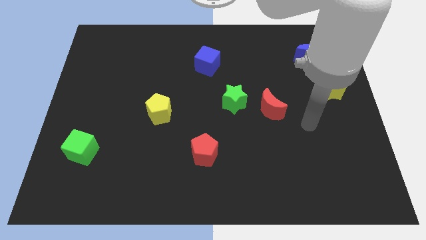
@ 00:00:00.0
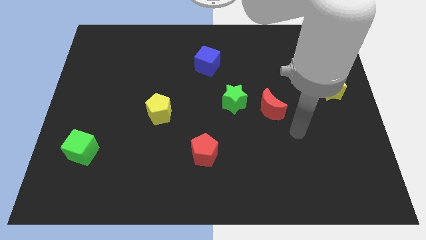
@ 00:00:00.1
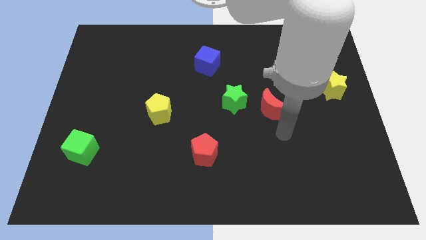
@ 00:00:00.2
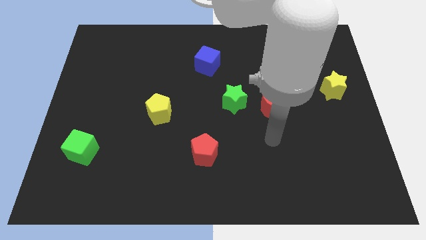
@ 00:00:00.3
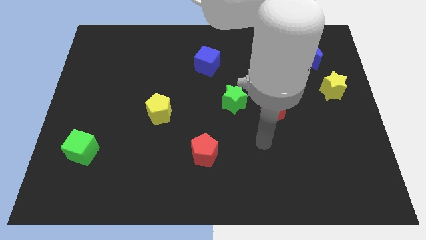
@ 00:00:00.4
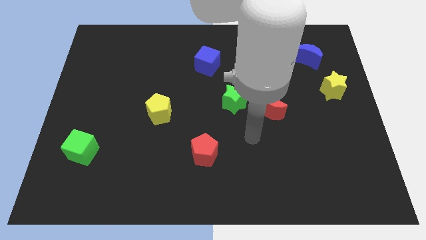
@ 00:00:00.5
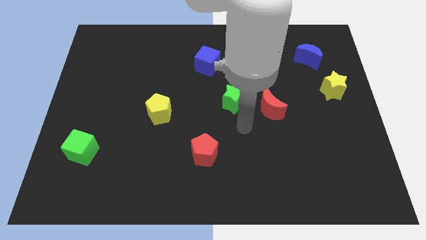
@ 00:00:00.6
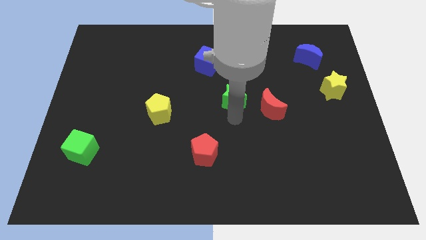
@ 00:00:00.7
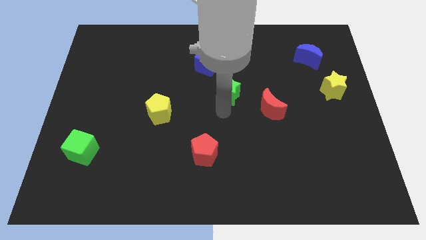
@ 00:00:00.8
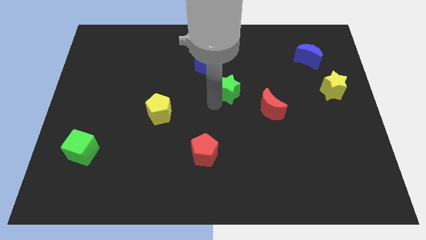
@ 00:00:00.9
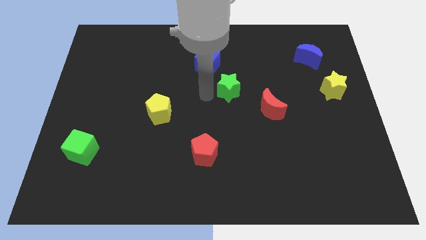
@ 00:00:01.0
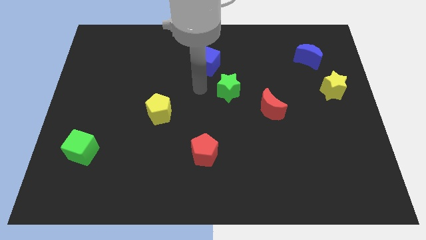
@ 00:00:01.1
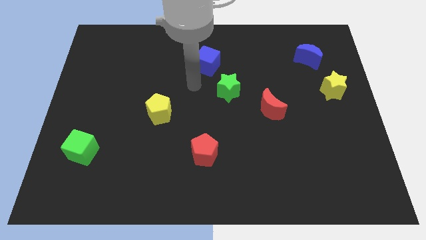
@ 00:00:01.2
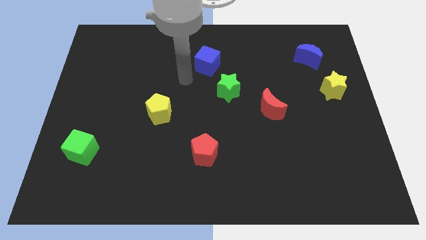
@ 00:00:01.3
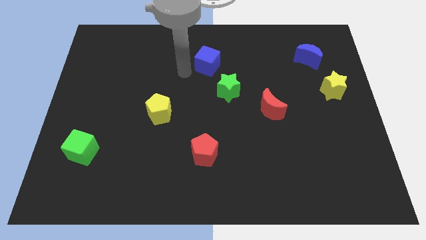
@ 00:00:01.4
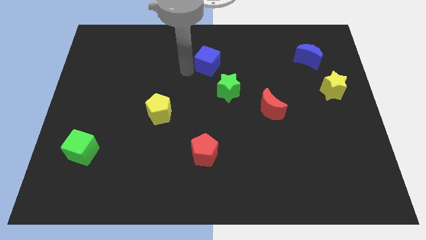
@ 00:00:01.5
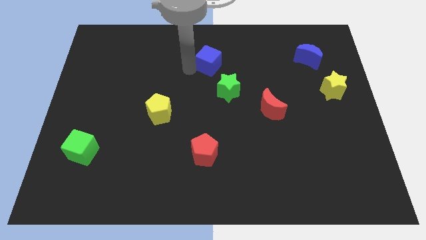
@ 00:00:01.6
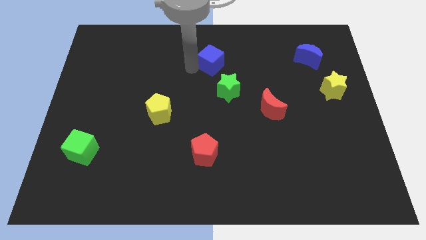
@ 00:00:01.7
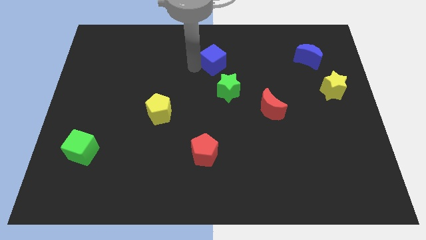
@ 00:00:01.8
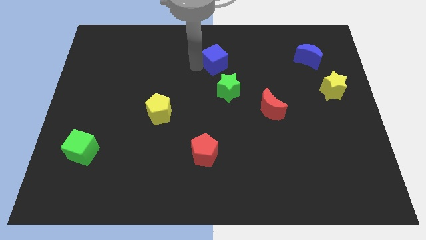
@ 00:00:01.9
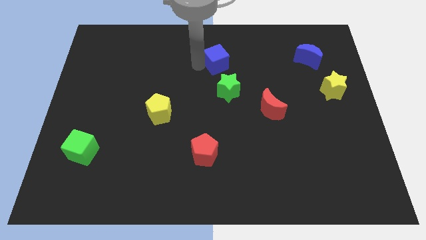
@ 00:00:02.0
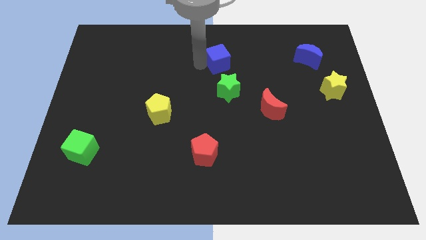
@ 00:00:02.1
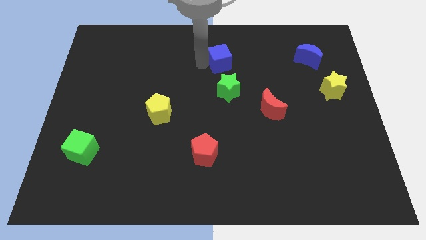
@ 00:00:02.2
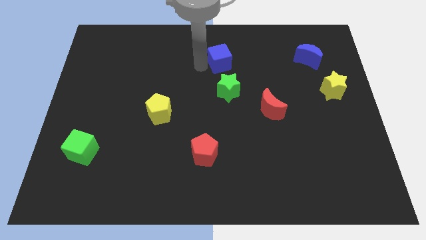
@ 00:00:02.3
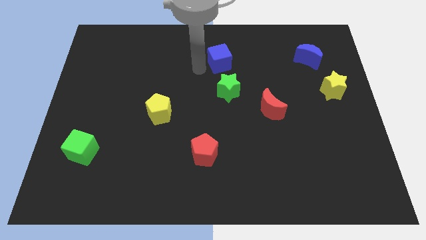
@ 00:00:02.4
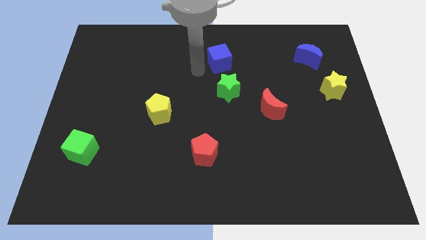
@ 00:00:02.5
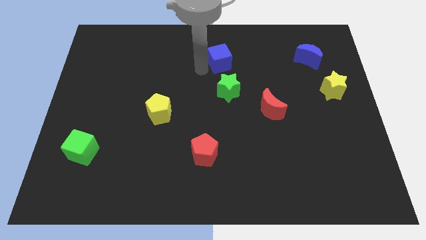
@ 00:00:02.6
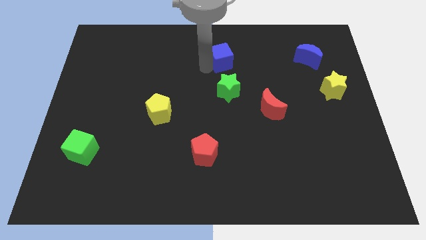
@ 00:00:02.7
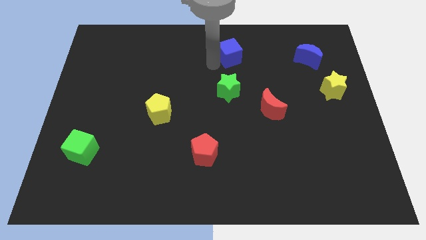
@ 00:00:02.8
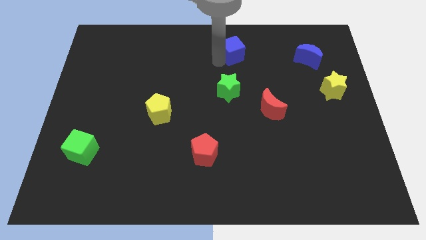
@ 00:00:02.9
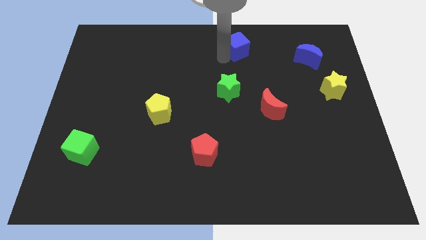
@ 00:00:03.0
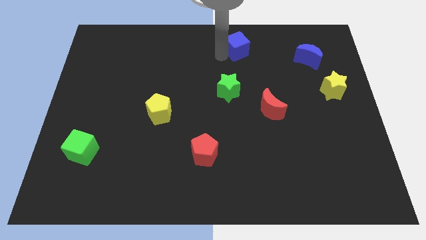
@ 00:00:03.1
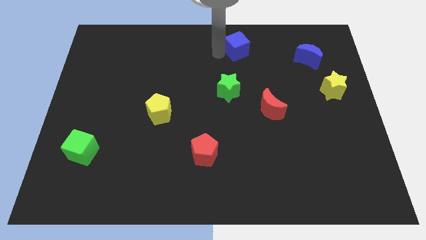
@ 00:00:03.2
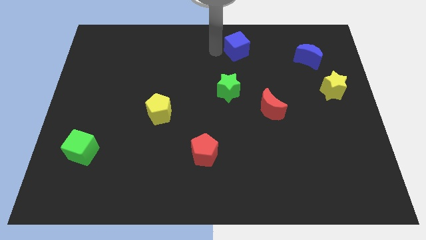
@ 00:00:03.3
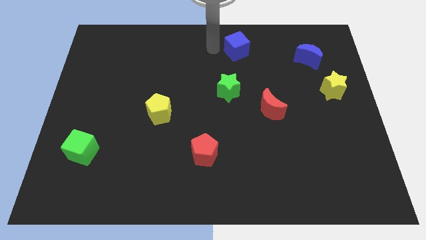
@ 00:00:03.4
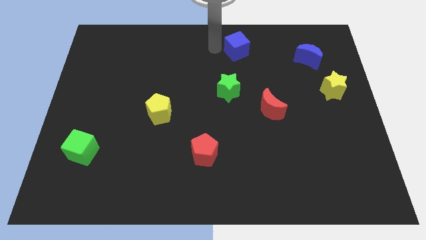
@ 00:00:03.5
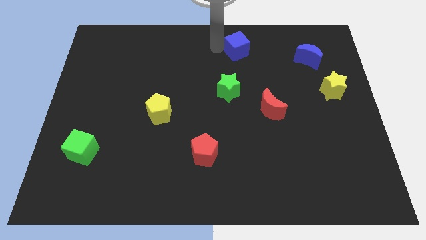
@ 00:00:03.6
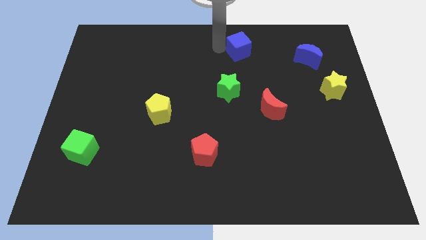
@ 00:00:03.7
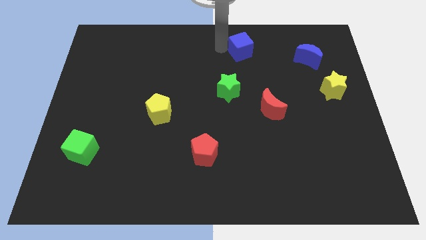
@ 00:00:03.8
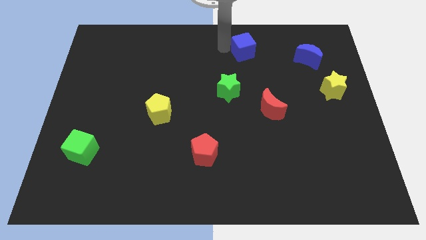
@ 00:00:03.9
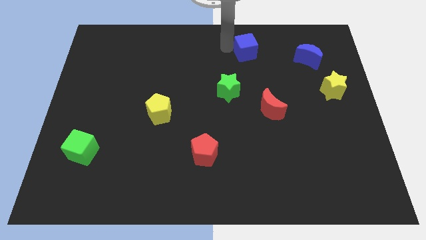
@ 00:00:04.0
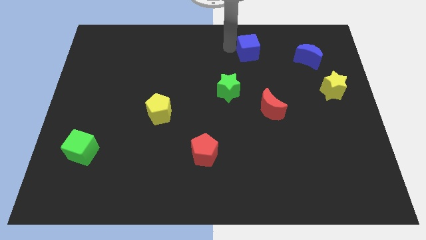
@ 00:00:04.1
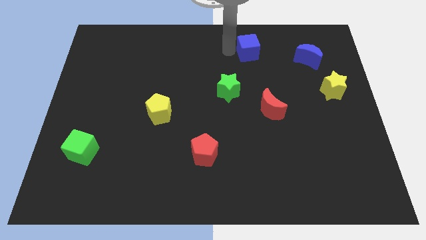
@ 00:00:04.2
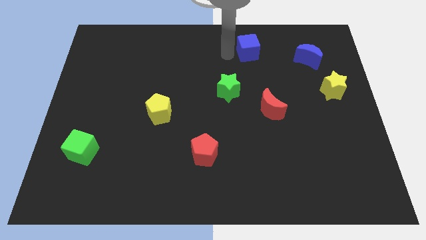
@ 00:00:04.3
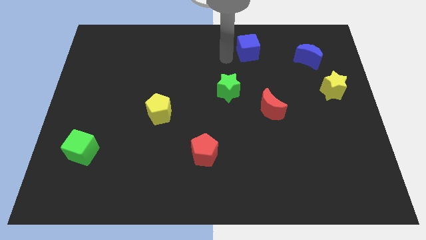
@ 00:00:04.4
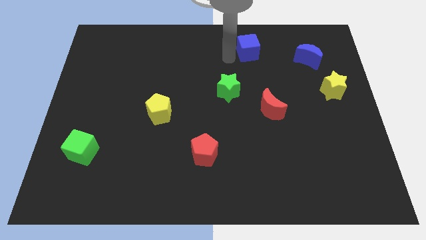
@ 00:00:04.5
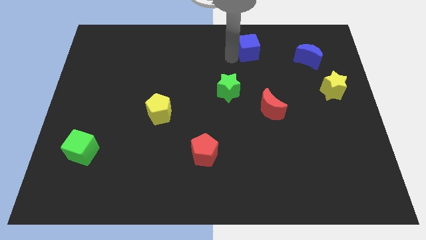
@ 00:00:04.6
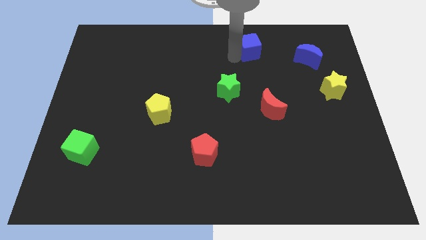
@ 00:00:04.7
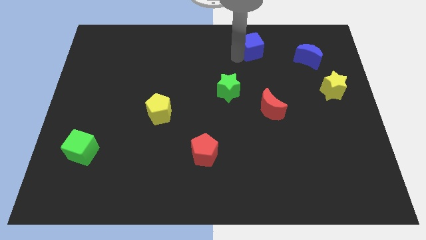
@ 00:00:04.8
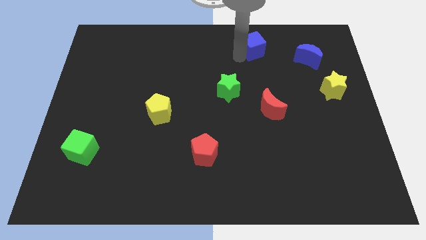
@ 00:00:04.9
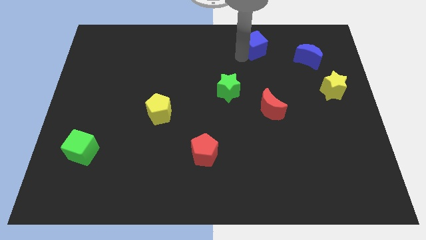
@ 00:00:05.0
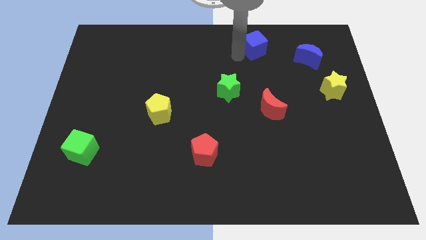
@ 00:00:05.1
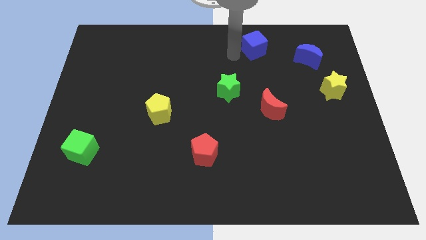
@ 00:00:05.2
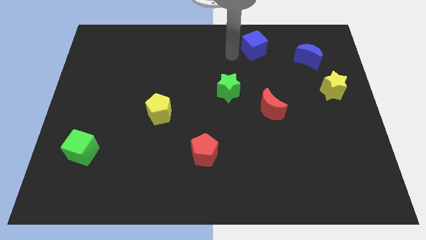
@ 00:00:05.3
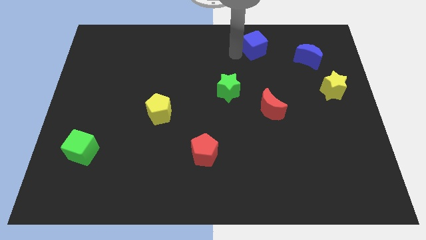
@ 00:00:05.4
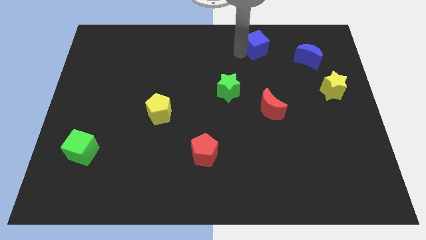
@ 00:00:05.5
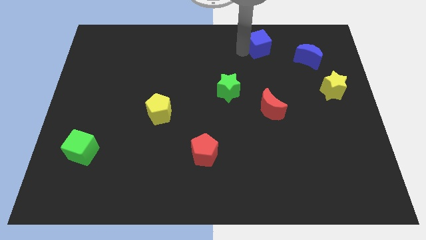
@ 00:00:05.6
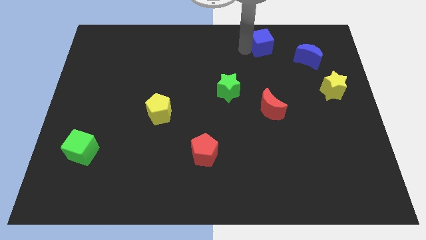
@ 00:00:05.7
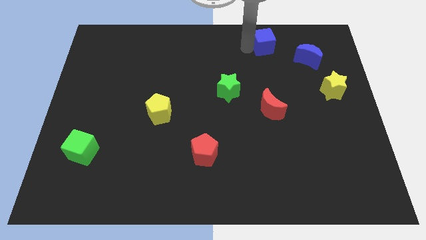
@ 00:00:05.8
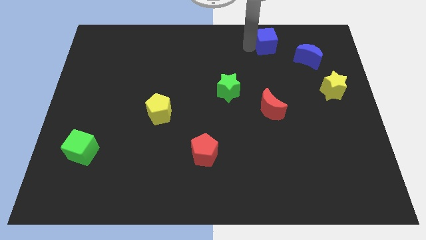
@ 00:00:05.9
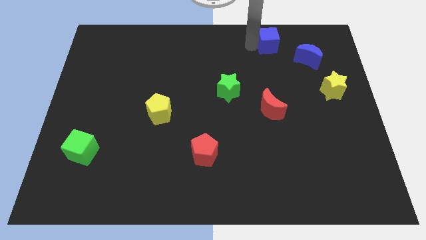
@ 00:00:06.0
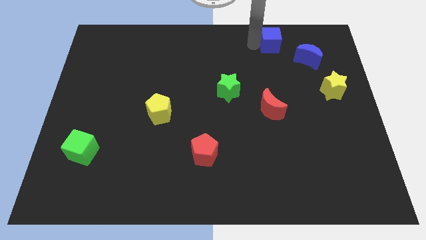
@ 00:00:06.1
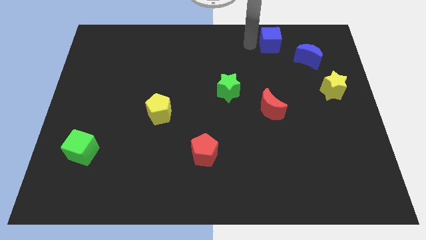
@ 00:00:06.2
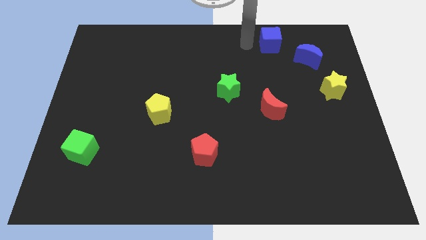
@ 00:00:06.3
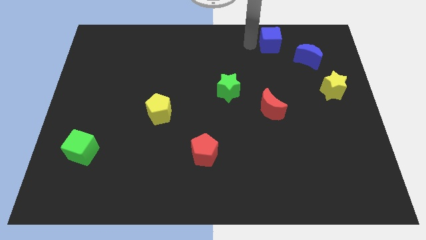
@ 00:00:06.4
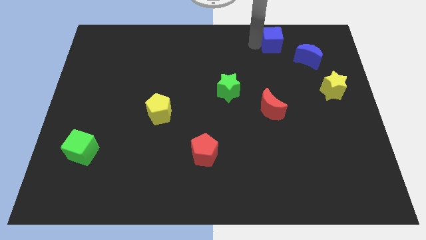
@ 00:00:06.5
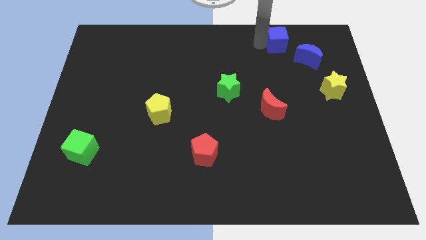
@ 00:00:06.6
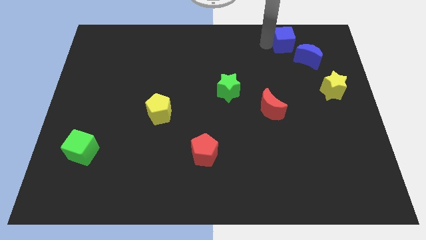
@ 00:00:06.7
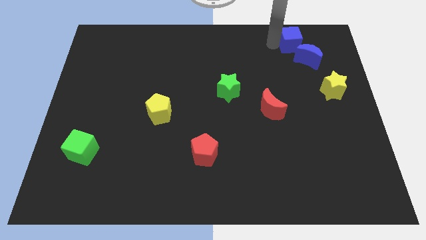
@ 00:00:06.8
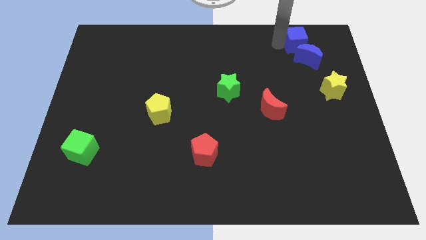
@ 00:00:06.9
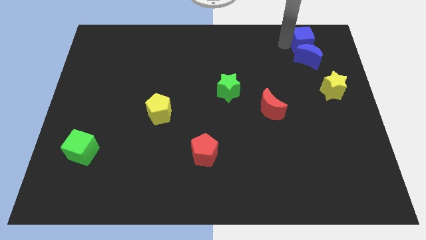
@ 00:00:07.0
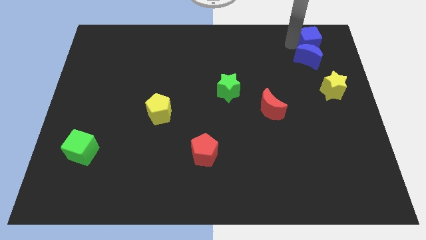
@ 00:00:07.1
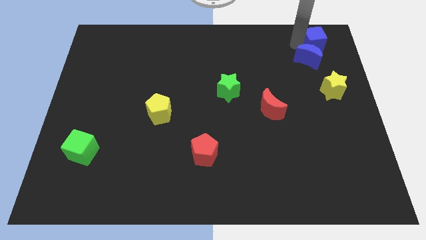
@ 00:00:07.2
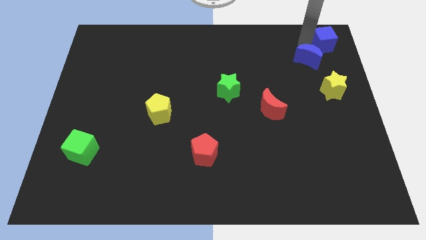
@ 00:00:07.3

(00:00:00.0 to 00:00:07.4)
slide the blue cube to the top right of the board

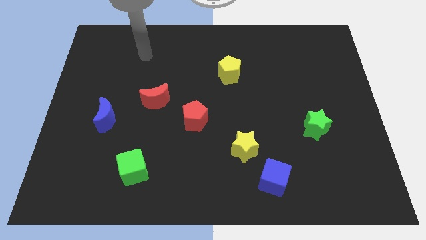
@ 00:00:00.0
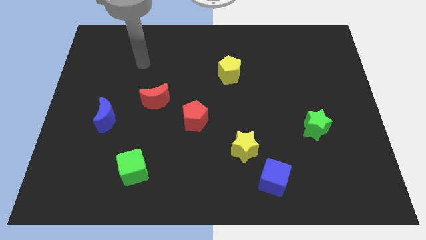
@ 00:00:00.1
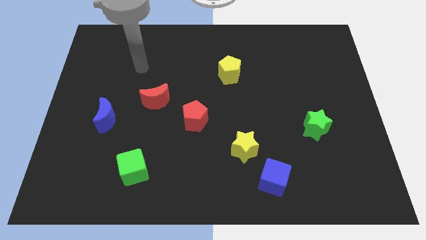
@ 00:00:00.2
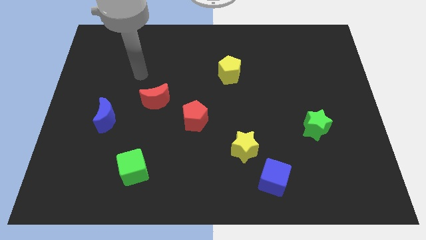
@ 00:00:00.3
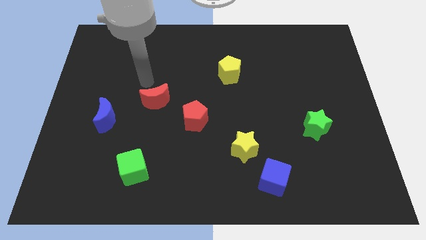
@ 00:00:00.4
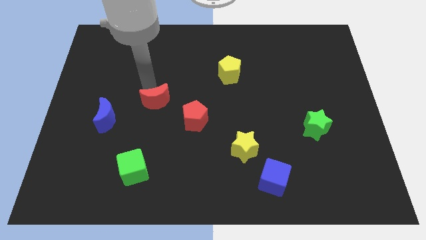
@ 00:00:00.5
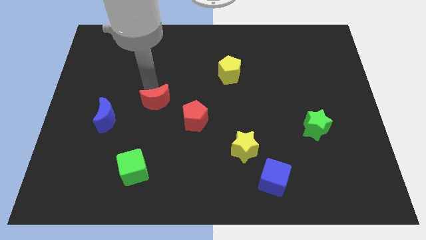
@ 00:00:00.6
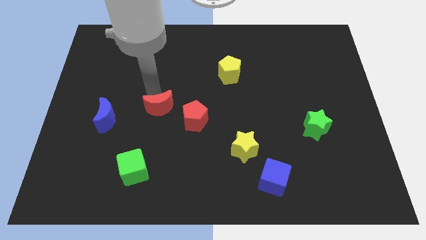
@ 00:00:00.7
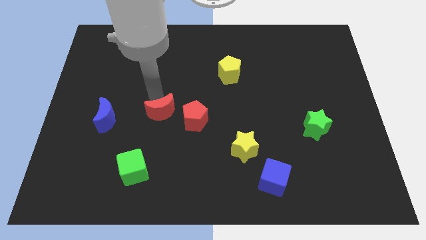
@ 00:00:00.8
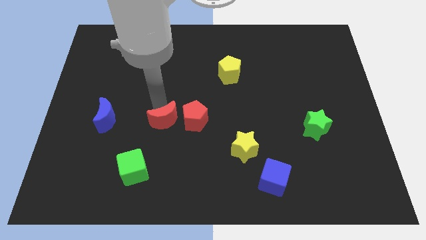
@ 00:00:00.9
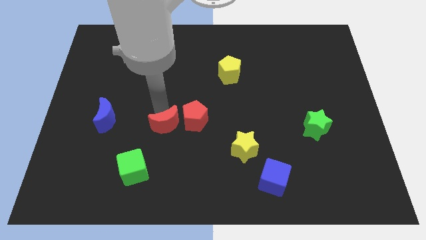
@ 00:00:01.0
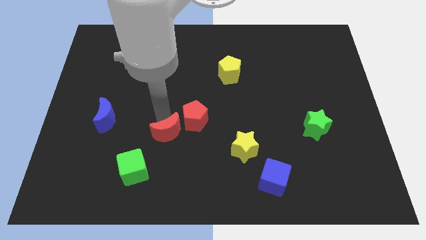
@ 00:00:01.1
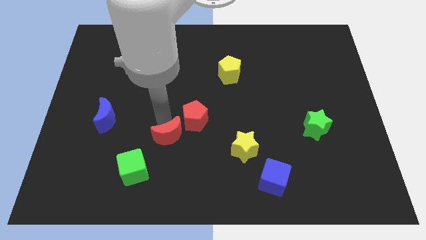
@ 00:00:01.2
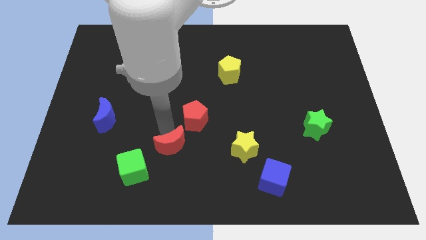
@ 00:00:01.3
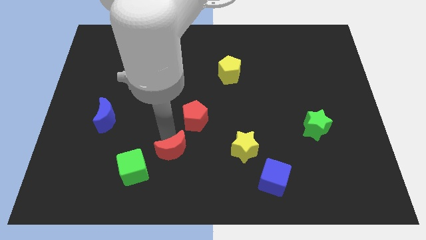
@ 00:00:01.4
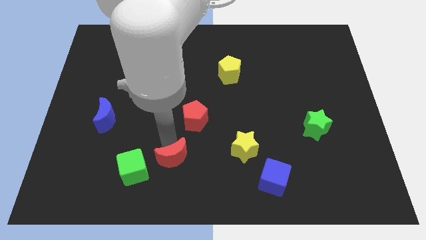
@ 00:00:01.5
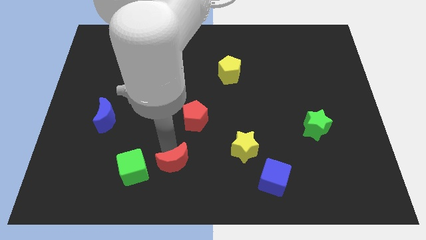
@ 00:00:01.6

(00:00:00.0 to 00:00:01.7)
push the red moon to the bottom
